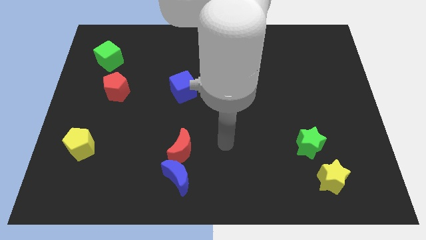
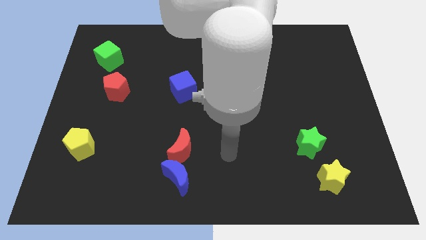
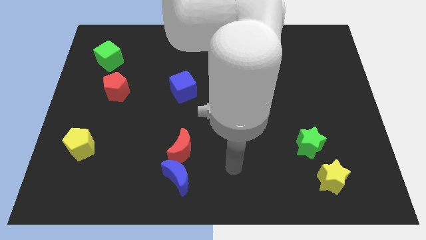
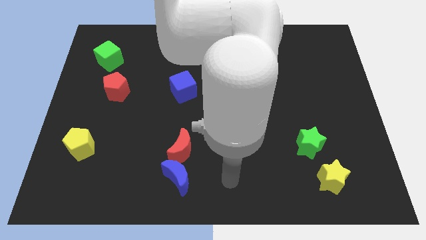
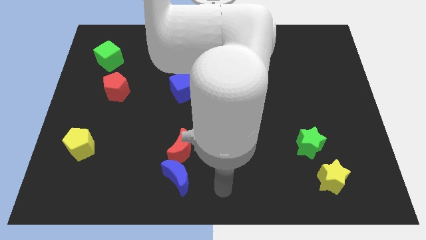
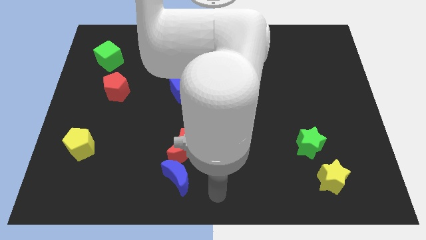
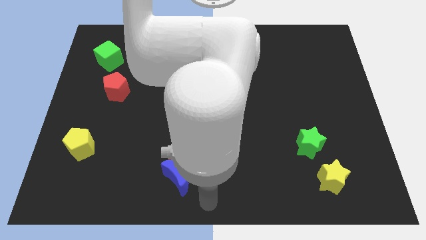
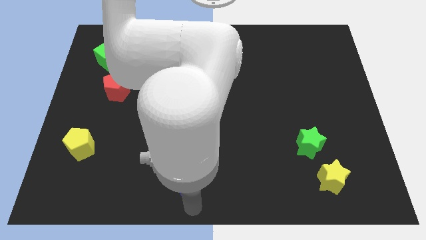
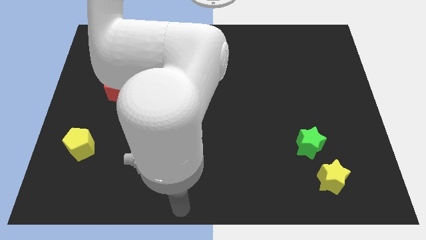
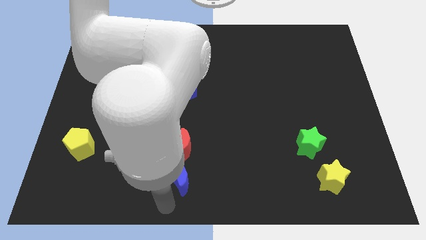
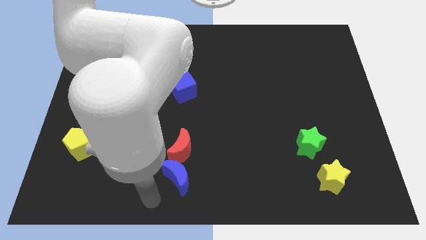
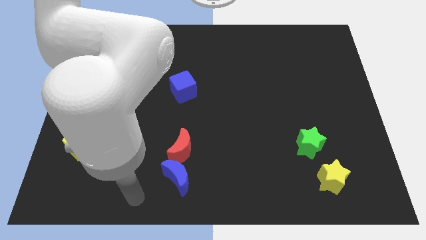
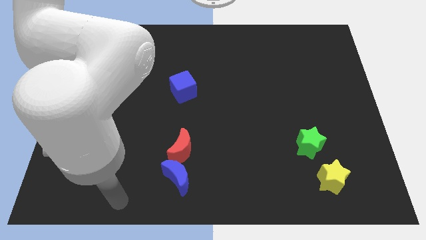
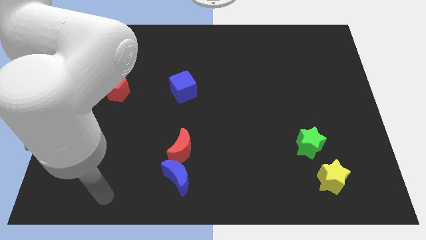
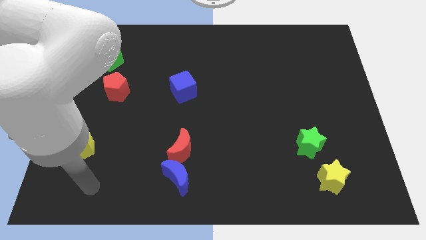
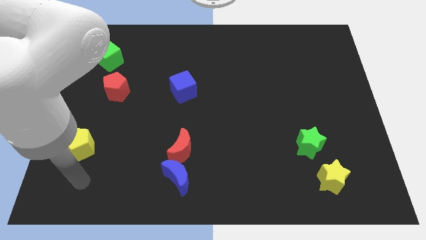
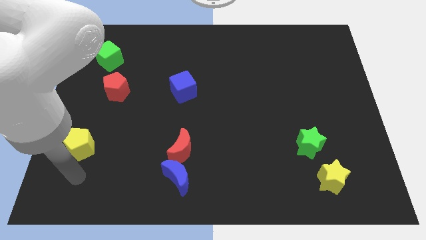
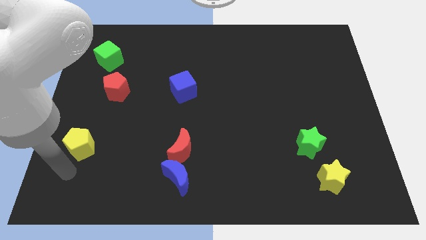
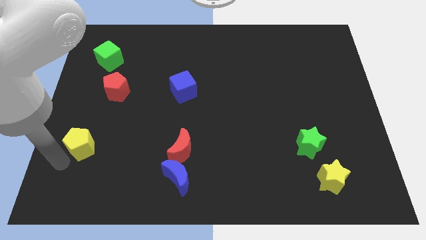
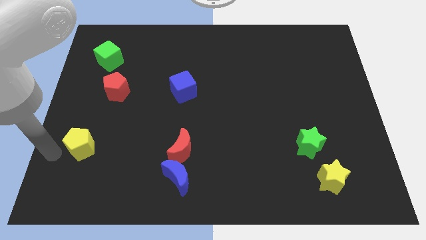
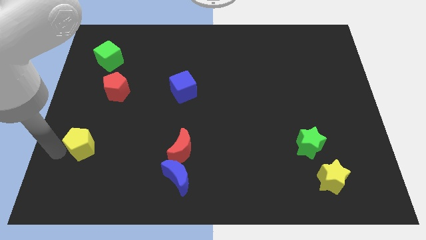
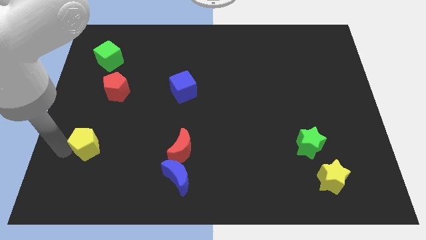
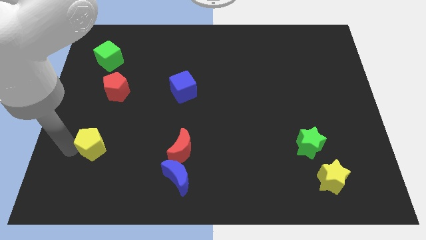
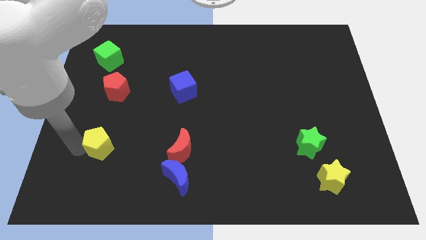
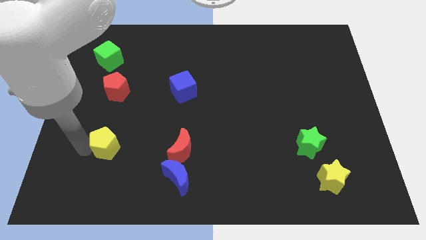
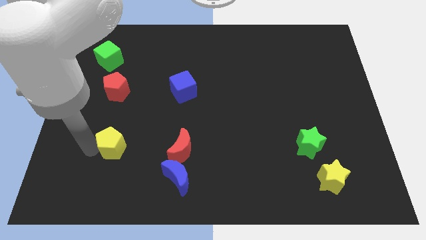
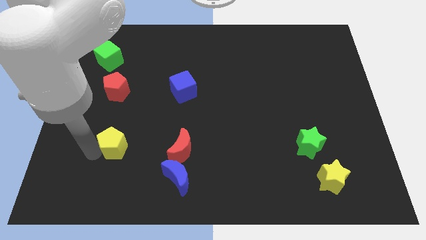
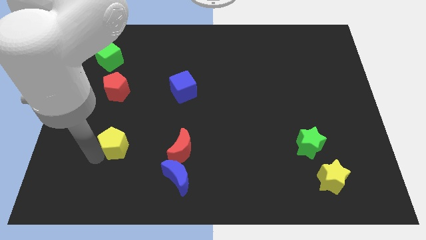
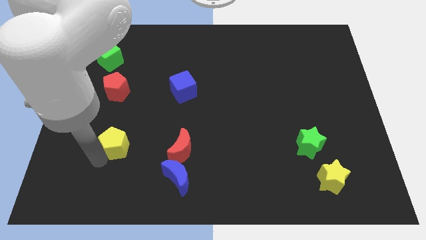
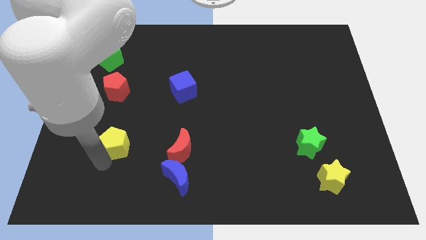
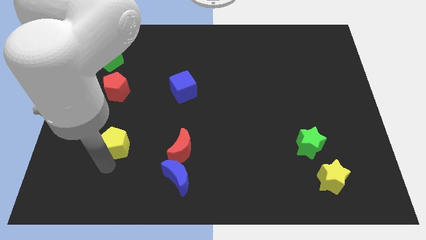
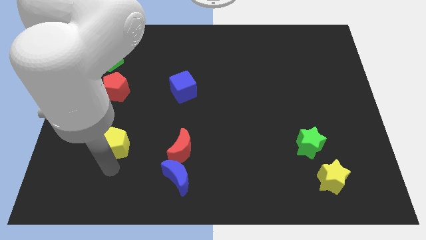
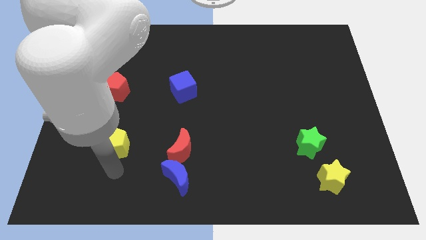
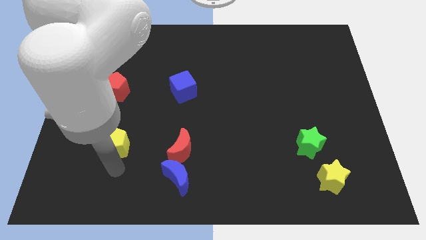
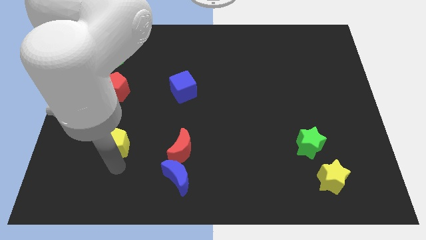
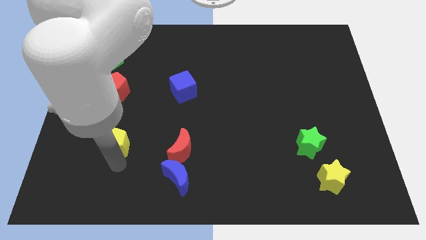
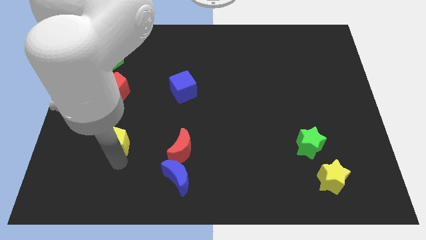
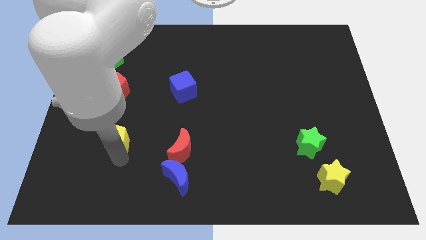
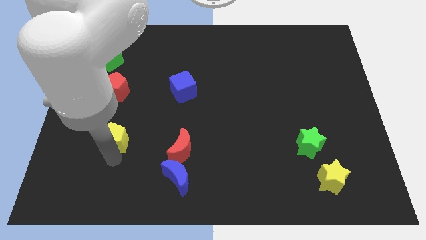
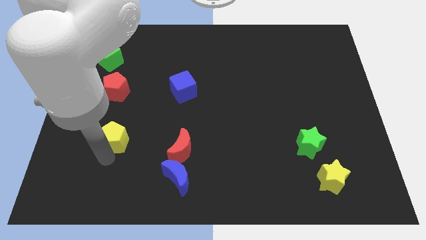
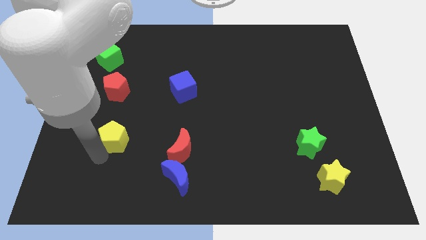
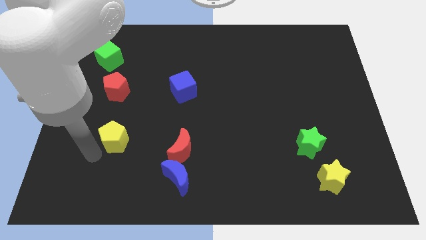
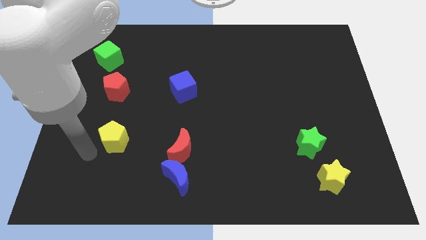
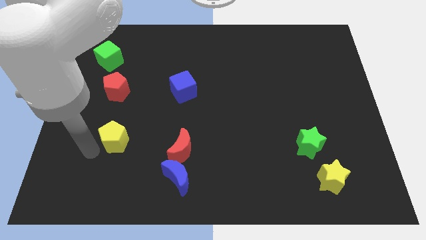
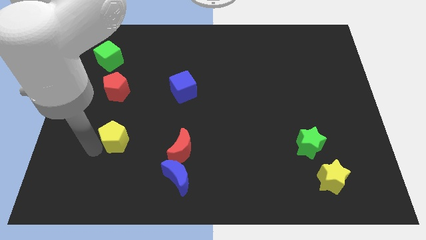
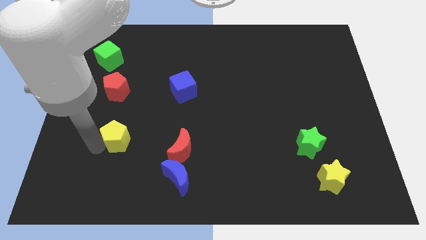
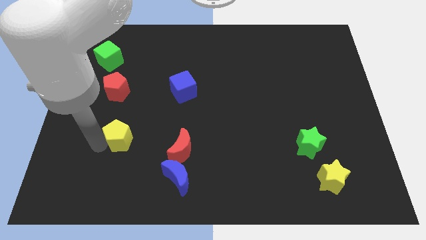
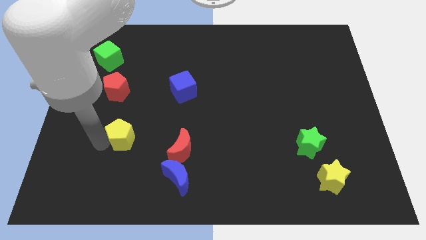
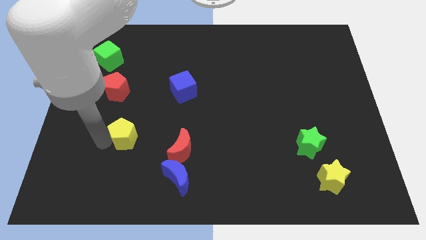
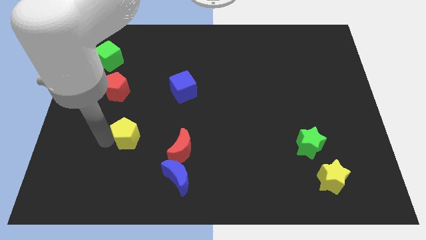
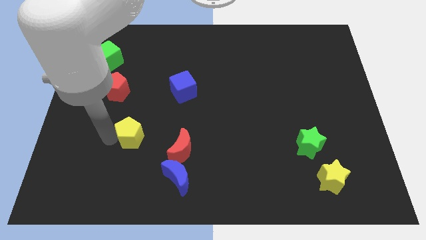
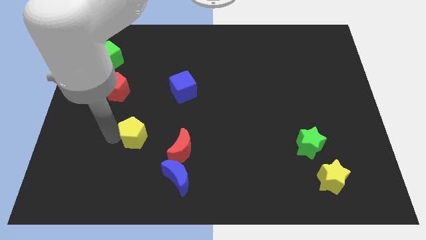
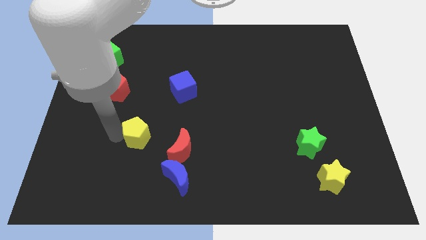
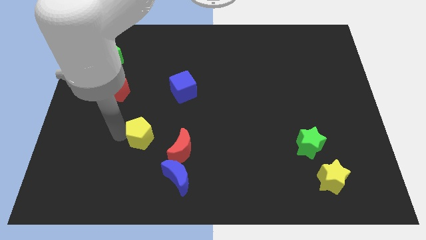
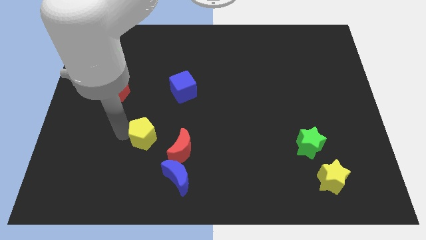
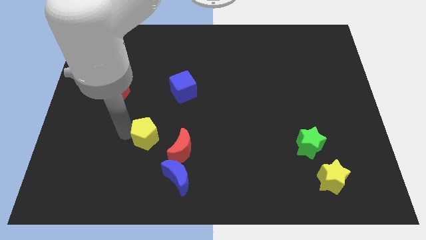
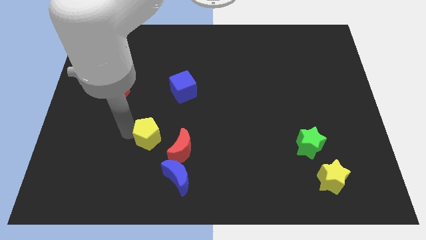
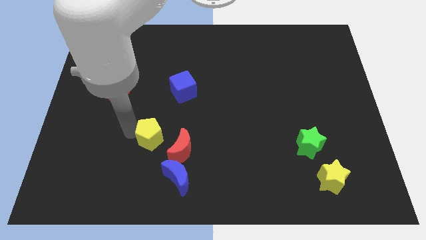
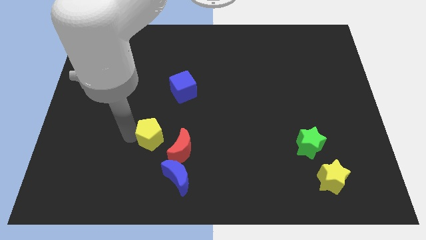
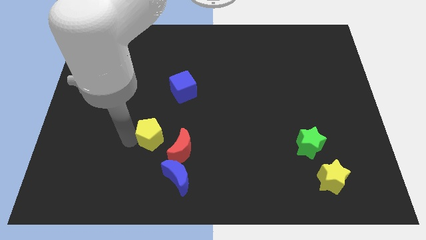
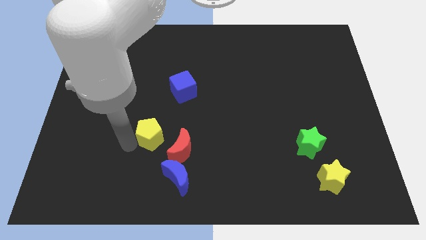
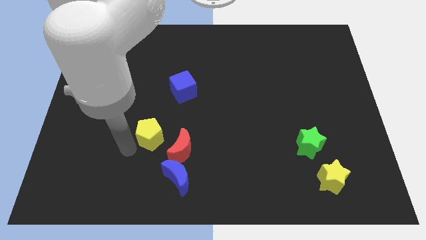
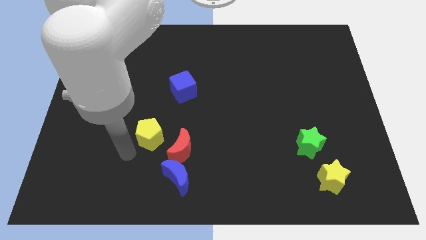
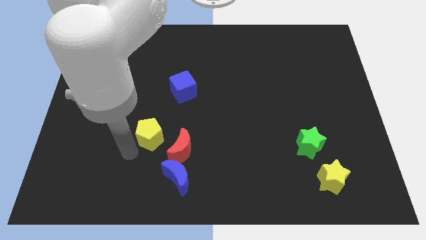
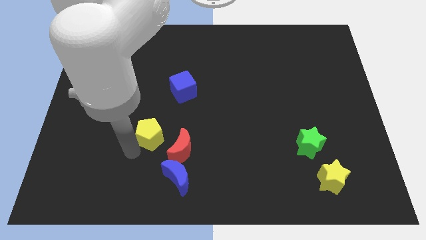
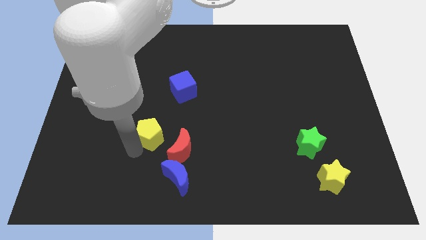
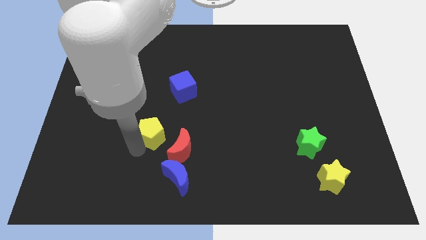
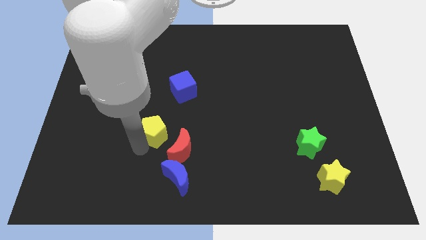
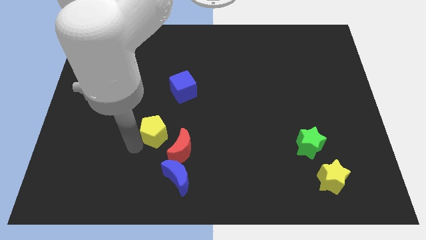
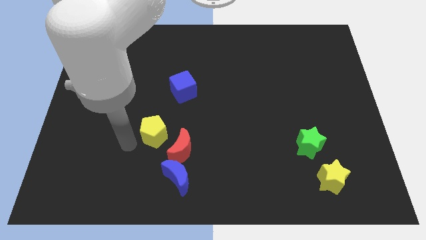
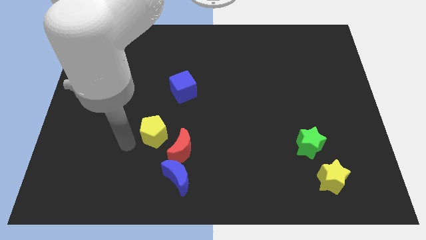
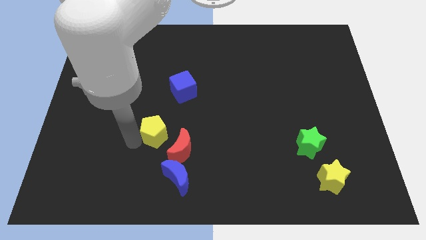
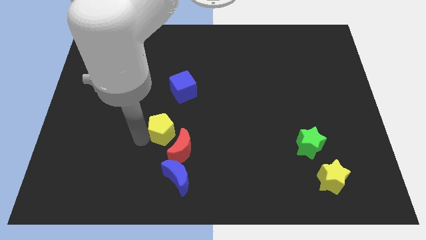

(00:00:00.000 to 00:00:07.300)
move the yellow pentagon below the blue cube
